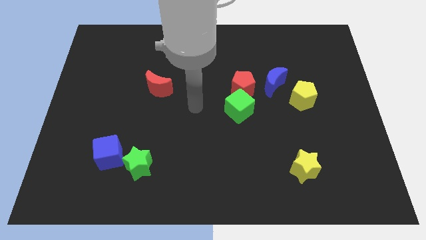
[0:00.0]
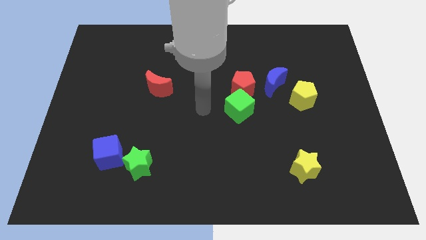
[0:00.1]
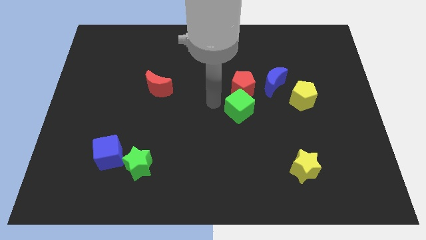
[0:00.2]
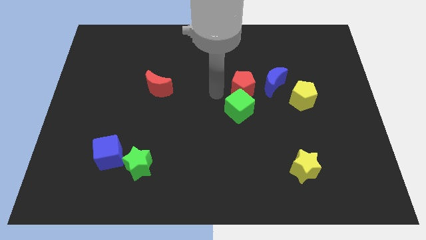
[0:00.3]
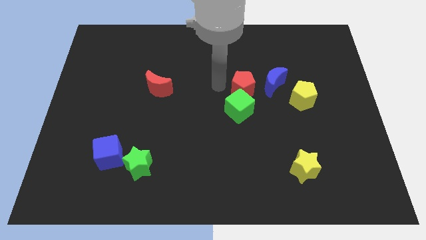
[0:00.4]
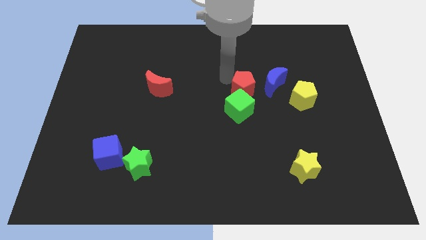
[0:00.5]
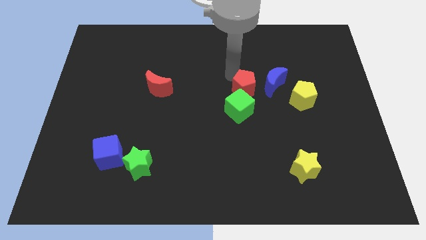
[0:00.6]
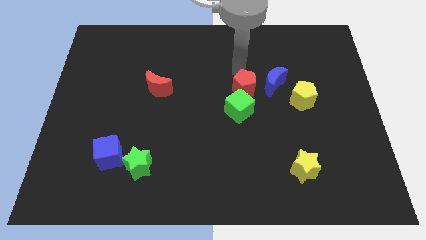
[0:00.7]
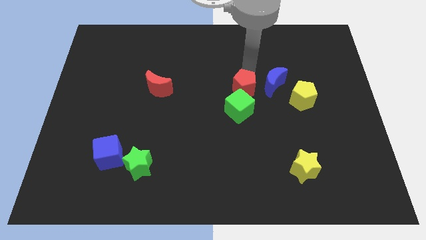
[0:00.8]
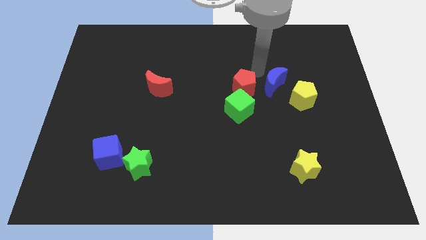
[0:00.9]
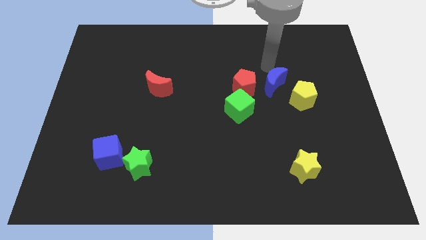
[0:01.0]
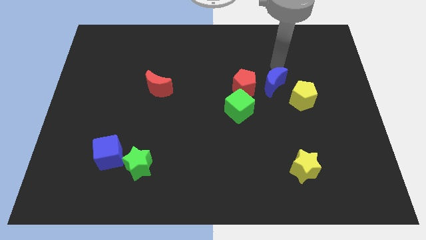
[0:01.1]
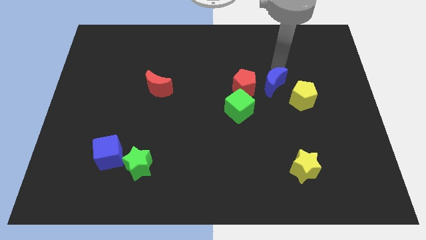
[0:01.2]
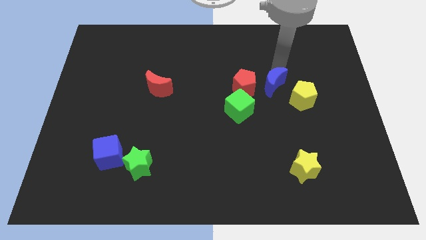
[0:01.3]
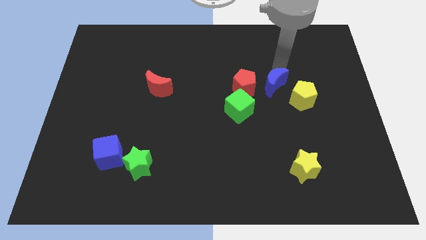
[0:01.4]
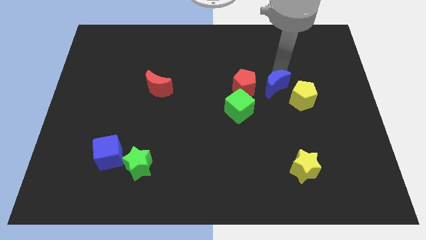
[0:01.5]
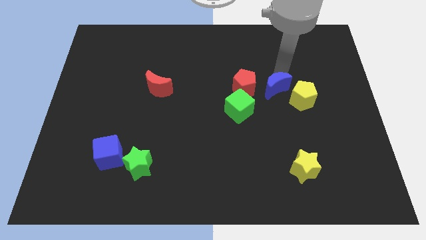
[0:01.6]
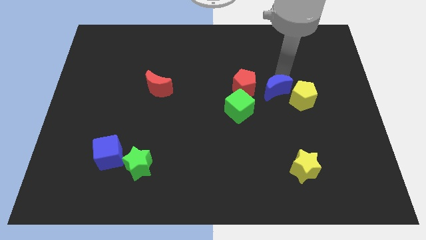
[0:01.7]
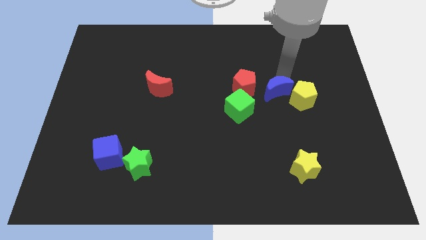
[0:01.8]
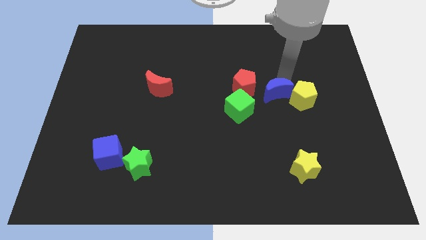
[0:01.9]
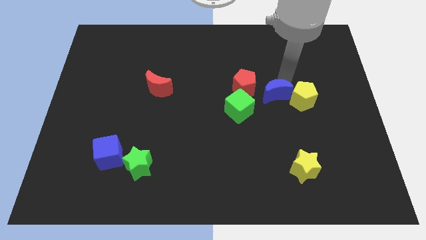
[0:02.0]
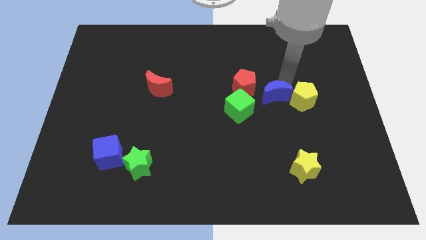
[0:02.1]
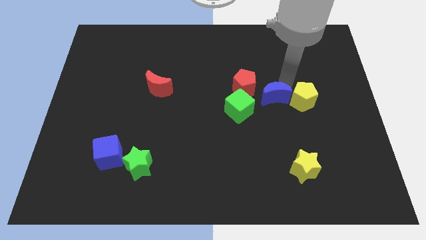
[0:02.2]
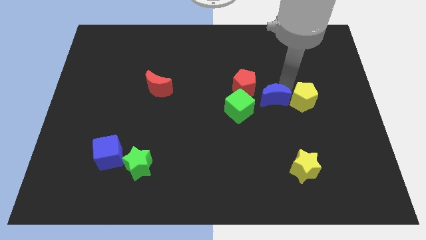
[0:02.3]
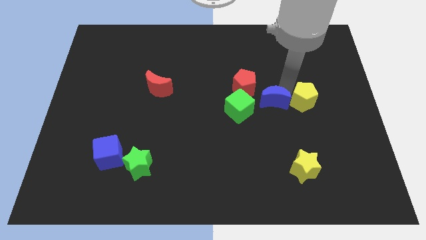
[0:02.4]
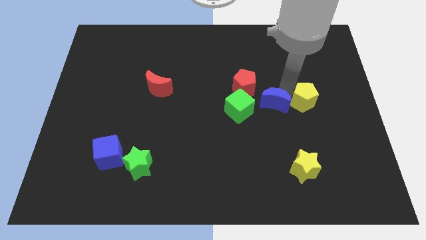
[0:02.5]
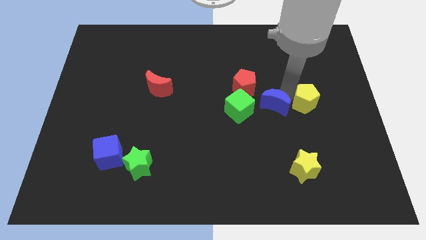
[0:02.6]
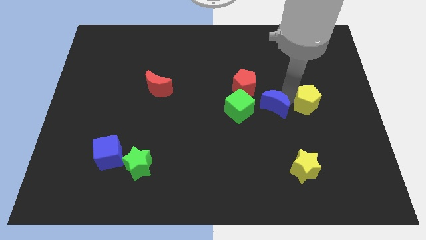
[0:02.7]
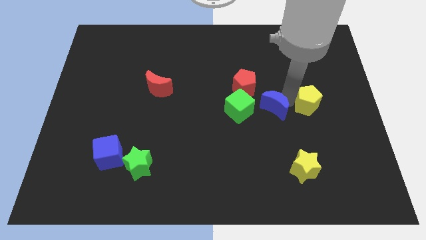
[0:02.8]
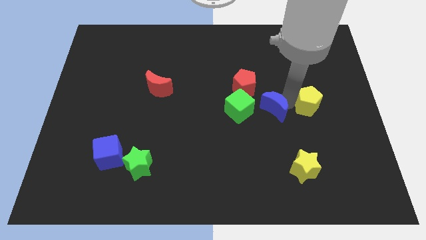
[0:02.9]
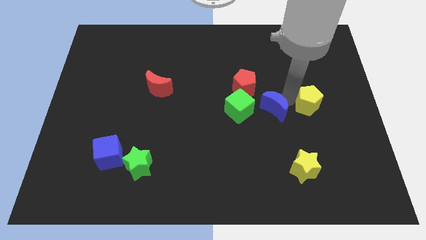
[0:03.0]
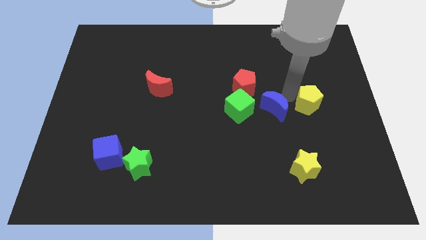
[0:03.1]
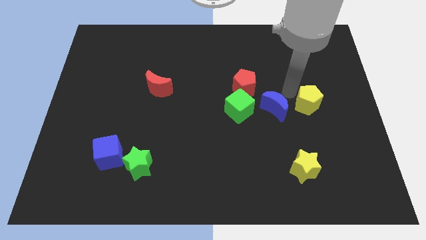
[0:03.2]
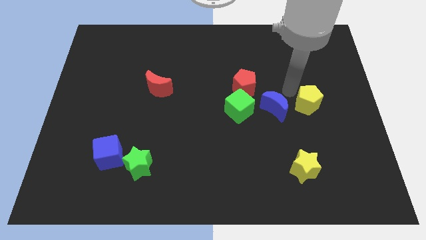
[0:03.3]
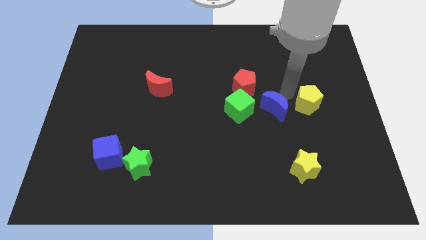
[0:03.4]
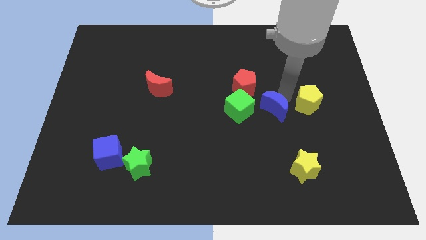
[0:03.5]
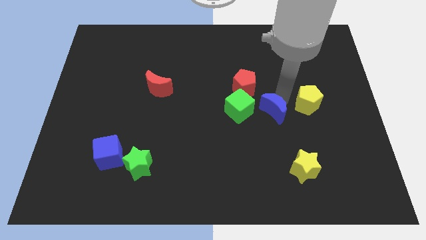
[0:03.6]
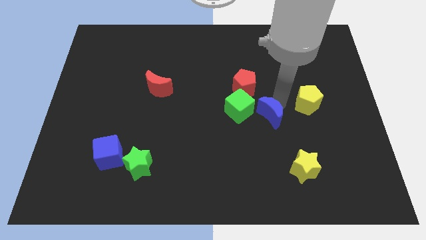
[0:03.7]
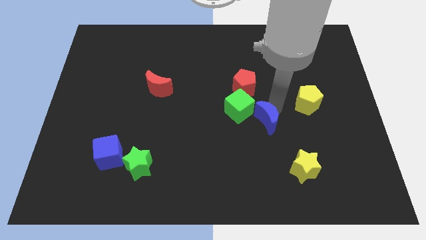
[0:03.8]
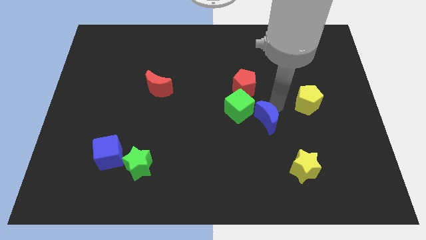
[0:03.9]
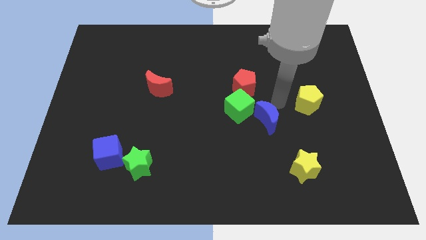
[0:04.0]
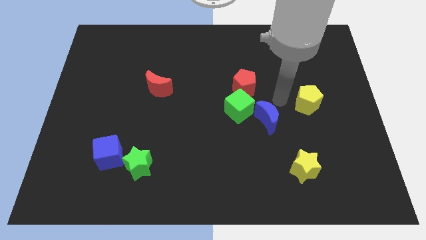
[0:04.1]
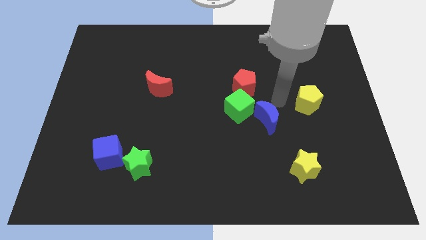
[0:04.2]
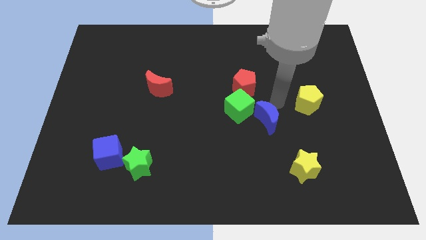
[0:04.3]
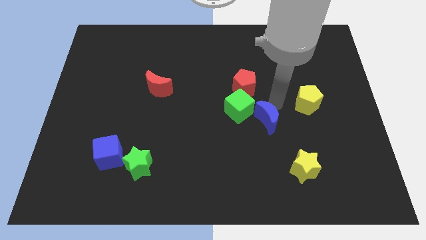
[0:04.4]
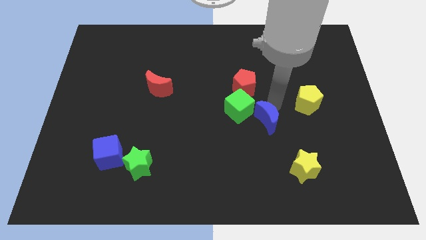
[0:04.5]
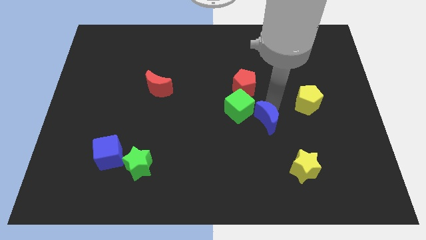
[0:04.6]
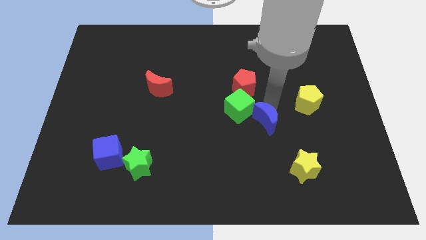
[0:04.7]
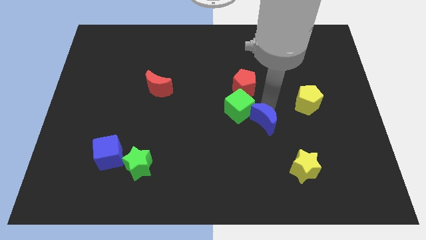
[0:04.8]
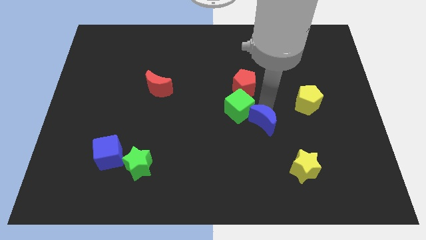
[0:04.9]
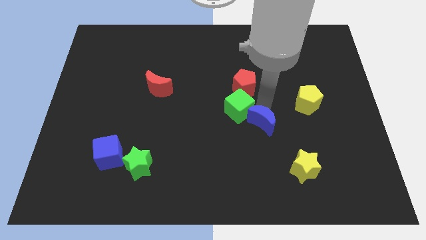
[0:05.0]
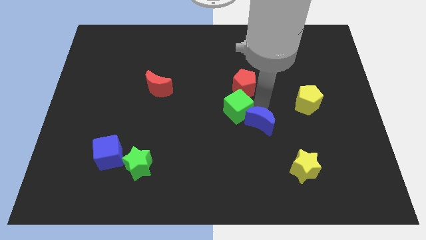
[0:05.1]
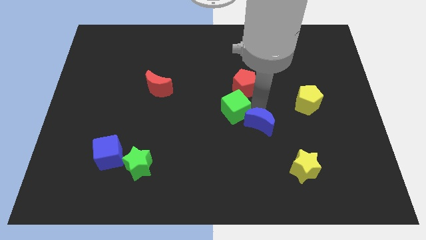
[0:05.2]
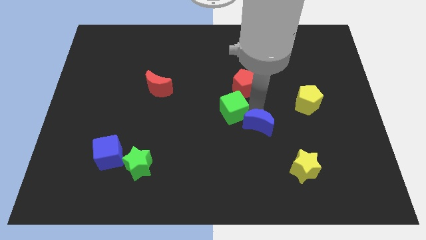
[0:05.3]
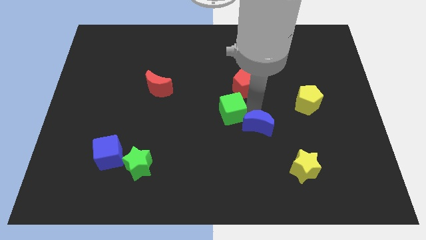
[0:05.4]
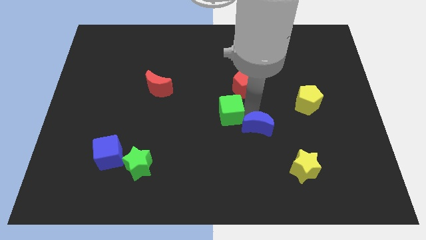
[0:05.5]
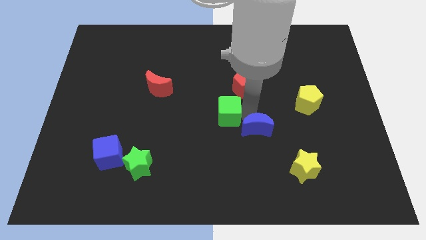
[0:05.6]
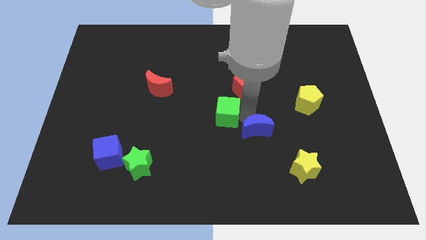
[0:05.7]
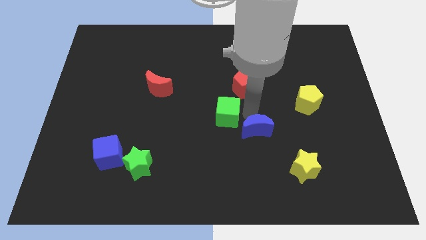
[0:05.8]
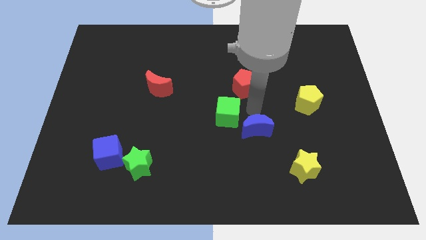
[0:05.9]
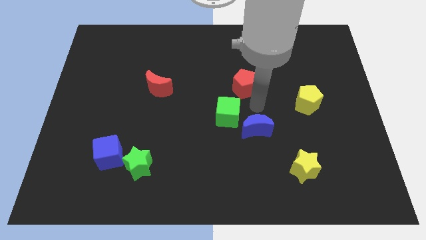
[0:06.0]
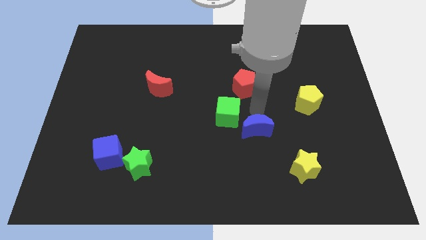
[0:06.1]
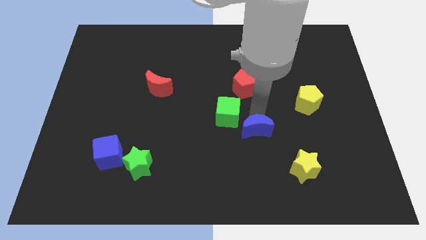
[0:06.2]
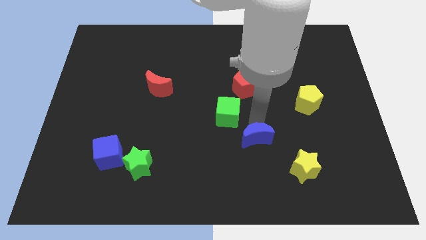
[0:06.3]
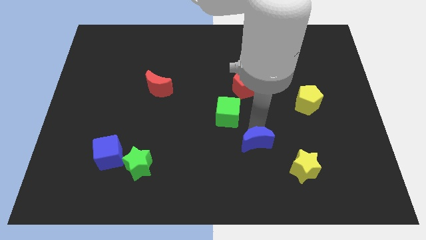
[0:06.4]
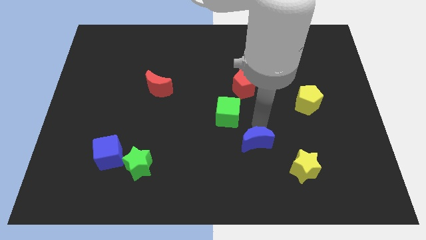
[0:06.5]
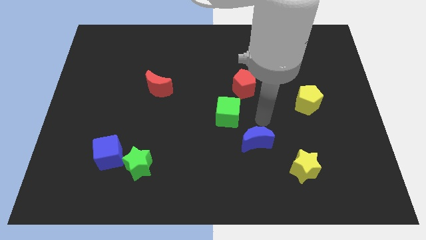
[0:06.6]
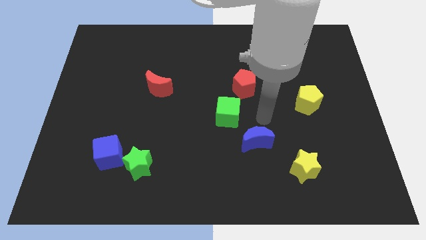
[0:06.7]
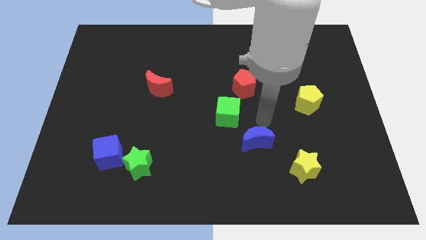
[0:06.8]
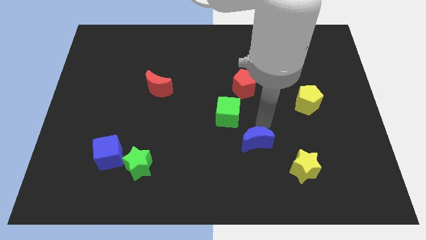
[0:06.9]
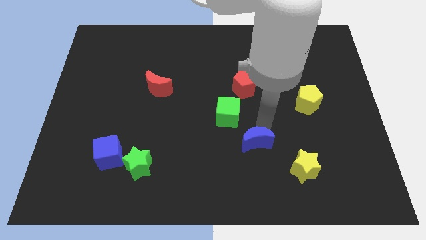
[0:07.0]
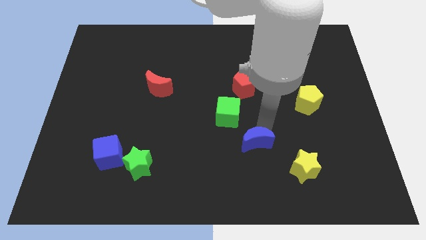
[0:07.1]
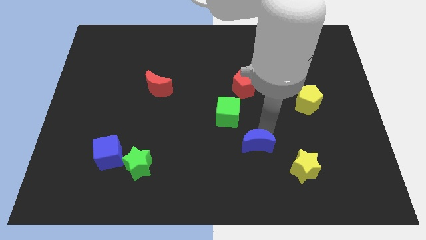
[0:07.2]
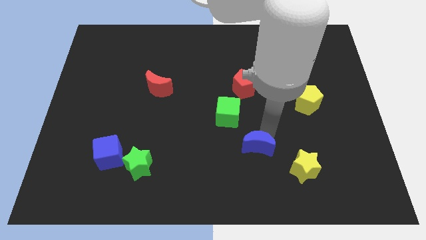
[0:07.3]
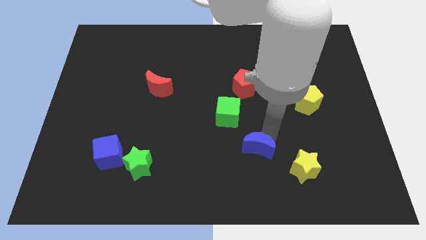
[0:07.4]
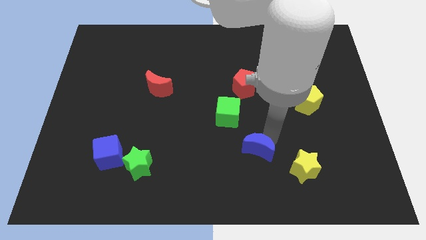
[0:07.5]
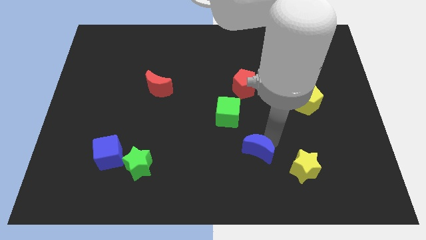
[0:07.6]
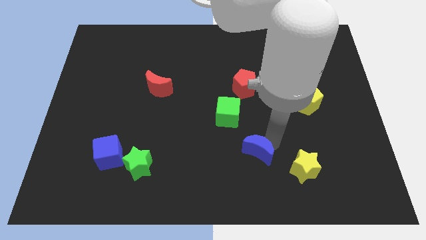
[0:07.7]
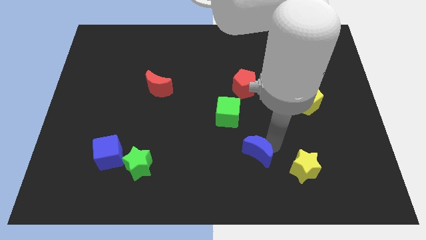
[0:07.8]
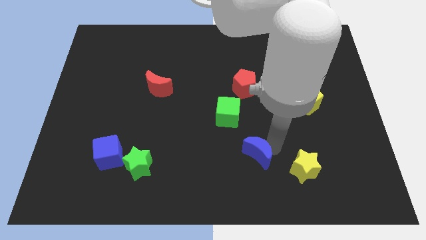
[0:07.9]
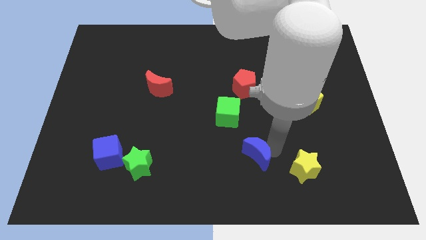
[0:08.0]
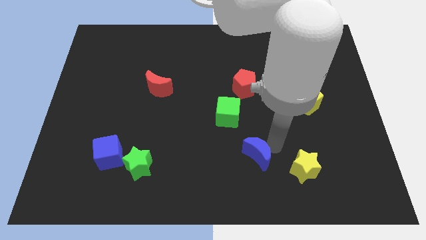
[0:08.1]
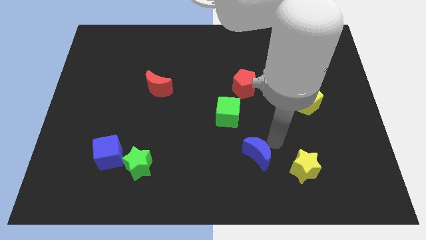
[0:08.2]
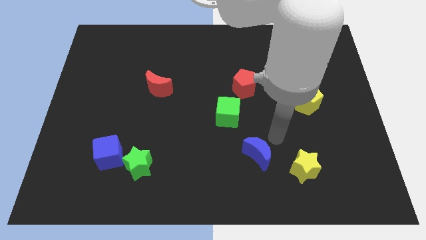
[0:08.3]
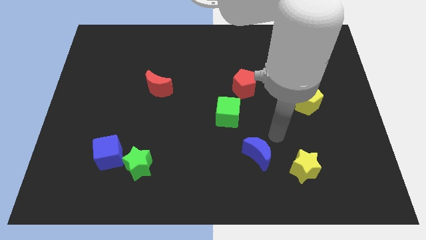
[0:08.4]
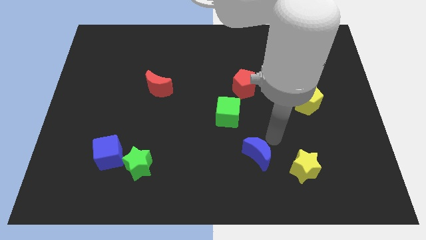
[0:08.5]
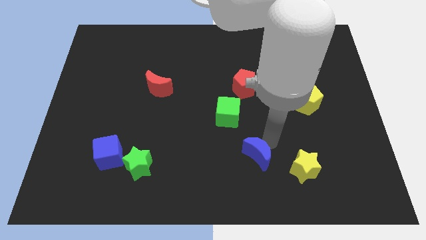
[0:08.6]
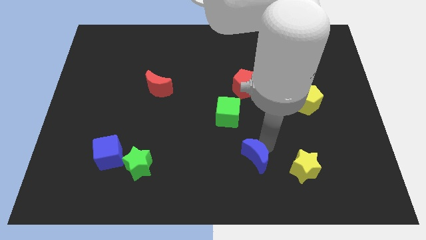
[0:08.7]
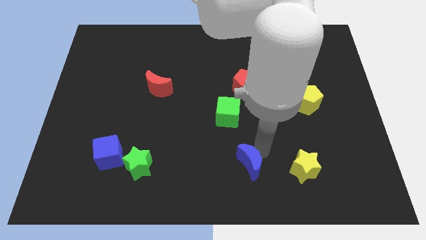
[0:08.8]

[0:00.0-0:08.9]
put the blue moon to the bottom side
